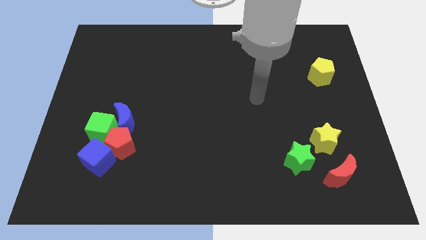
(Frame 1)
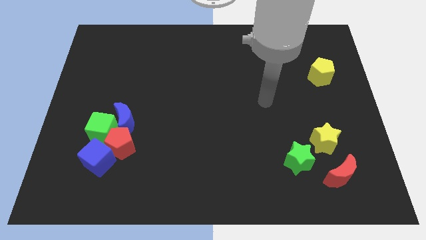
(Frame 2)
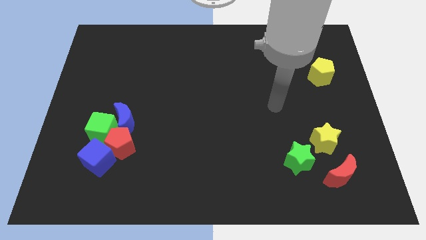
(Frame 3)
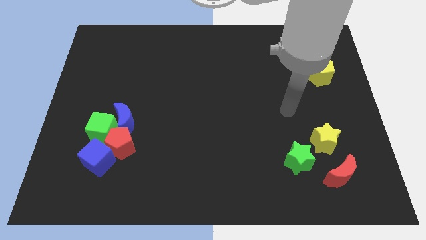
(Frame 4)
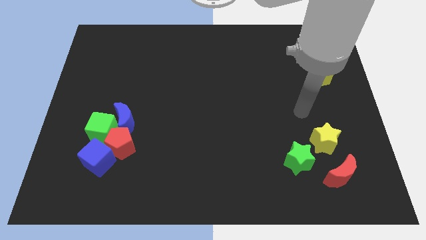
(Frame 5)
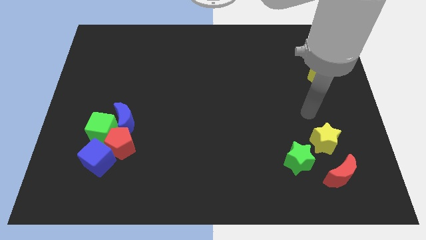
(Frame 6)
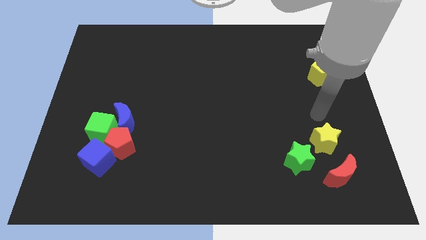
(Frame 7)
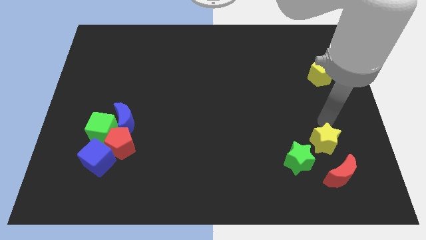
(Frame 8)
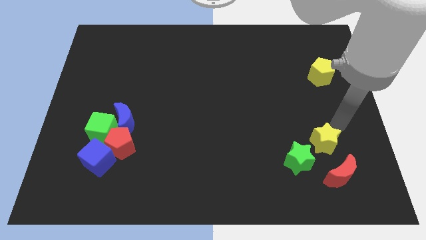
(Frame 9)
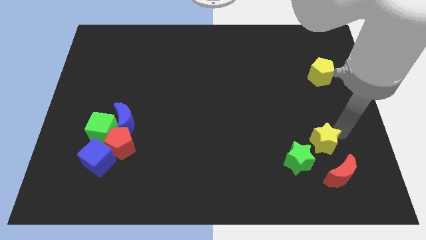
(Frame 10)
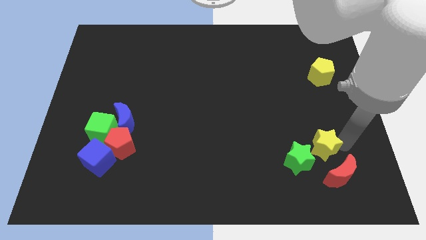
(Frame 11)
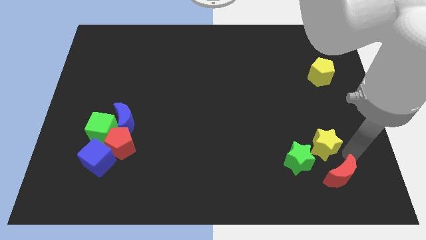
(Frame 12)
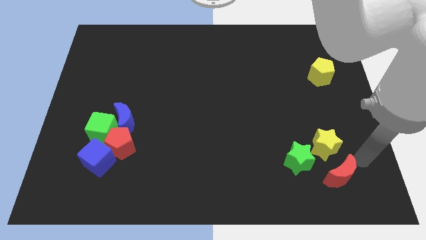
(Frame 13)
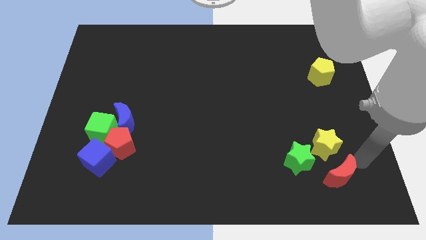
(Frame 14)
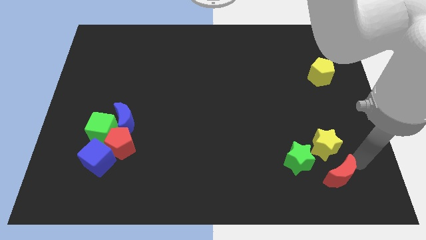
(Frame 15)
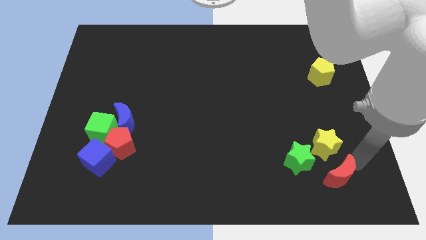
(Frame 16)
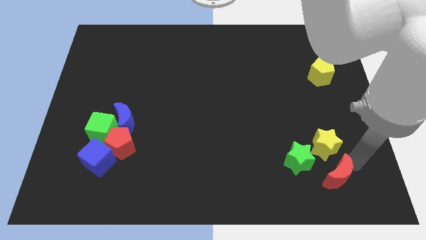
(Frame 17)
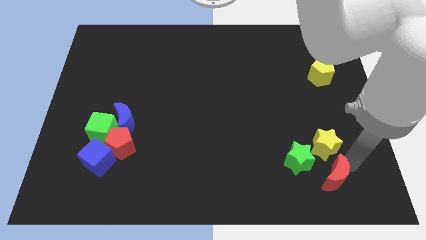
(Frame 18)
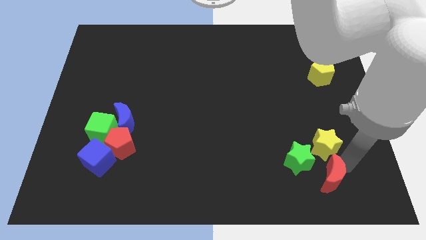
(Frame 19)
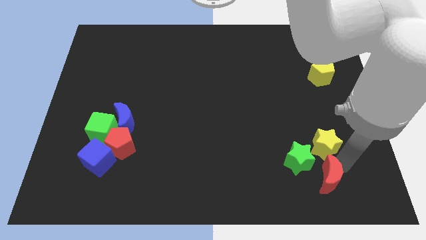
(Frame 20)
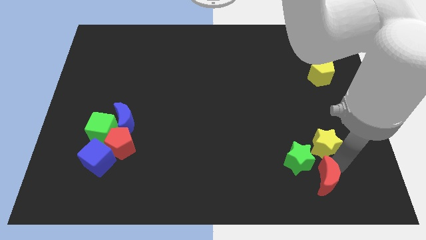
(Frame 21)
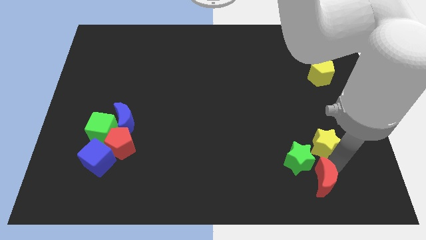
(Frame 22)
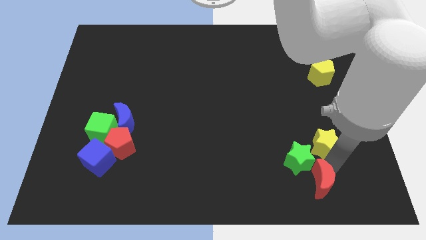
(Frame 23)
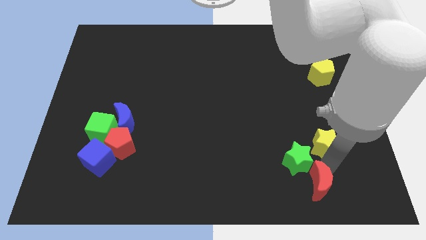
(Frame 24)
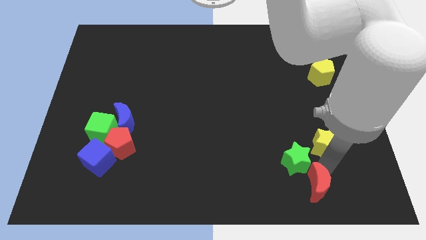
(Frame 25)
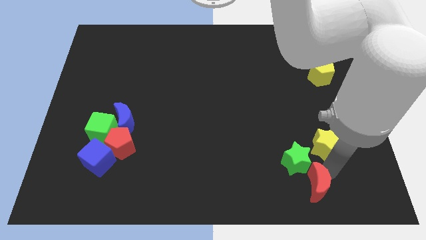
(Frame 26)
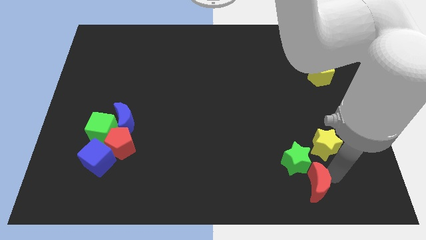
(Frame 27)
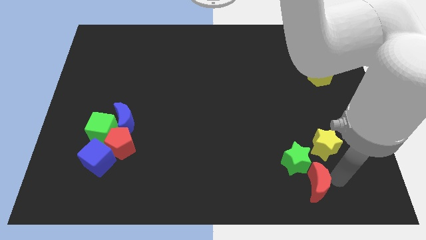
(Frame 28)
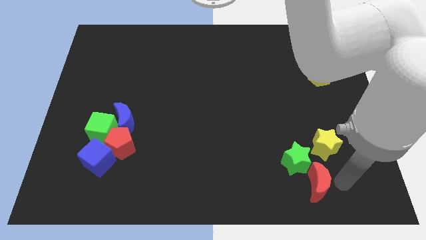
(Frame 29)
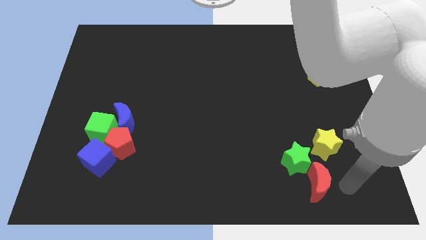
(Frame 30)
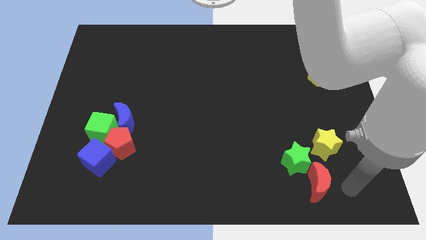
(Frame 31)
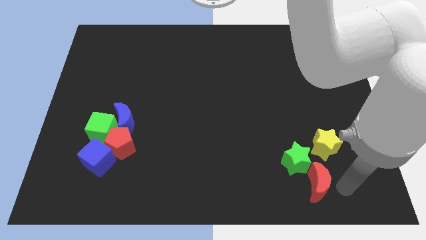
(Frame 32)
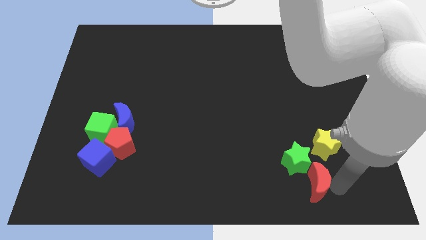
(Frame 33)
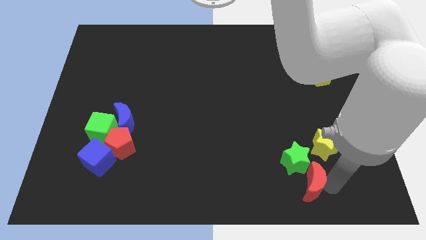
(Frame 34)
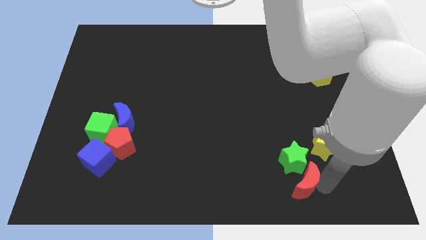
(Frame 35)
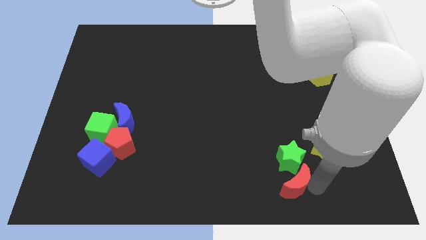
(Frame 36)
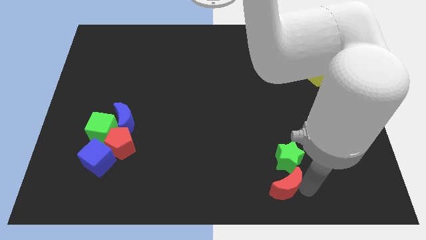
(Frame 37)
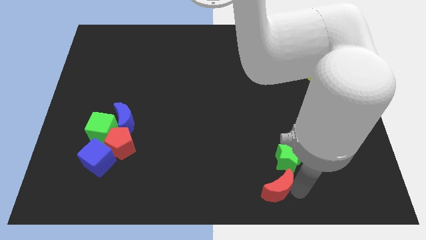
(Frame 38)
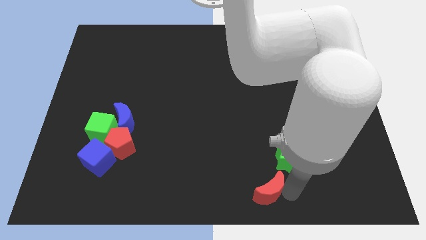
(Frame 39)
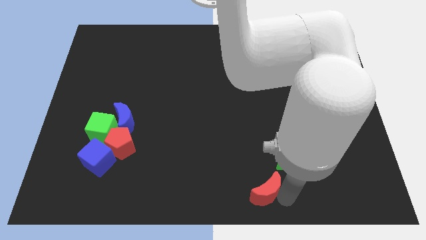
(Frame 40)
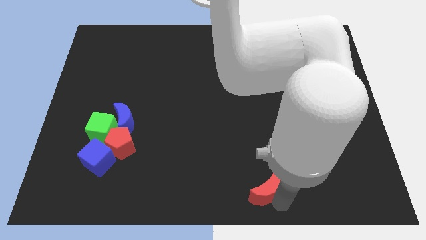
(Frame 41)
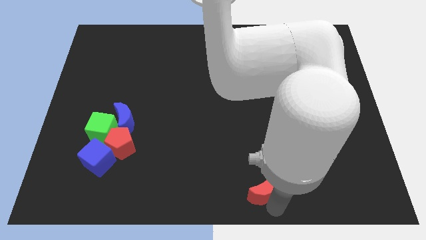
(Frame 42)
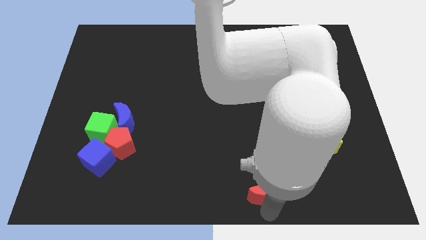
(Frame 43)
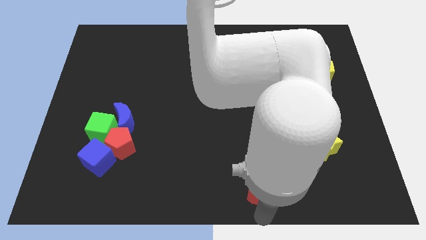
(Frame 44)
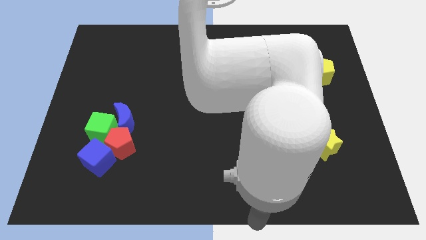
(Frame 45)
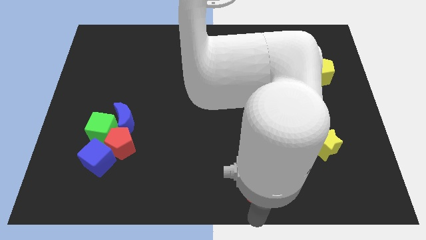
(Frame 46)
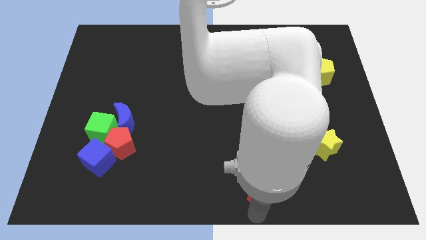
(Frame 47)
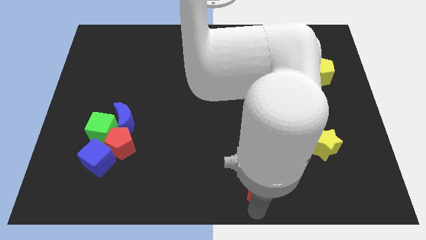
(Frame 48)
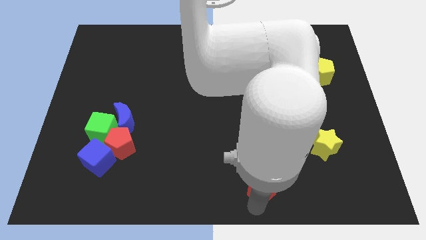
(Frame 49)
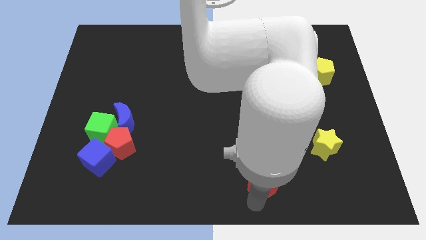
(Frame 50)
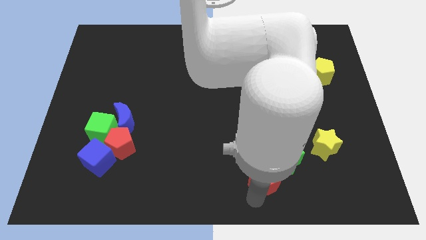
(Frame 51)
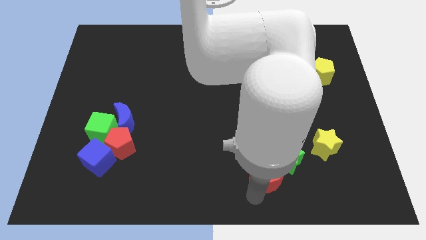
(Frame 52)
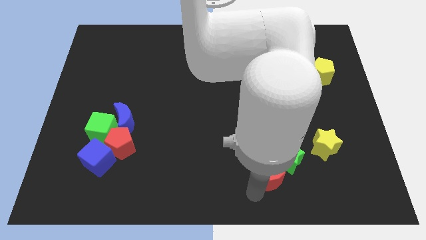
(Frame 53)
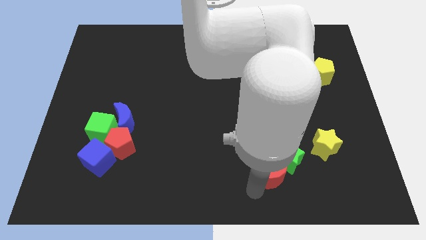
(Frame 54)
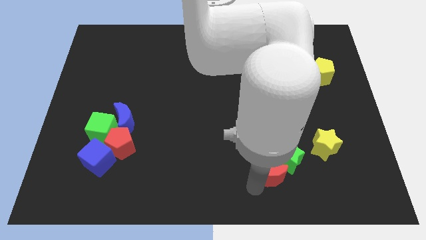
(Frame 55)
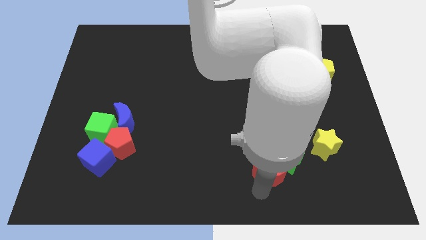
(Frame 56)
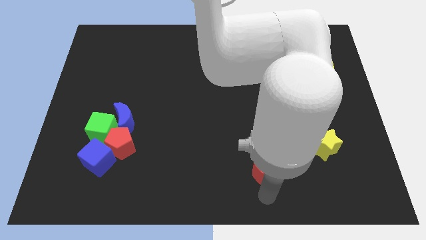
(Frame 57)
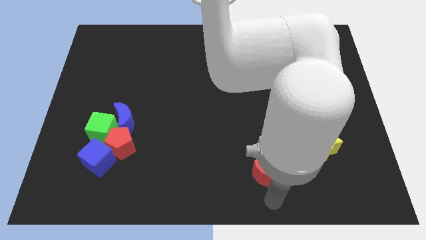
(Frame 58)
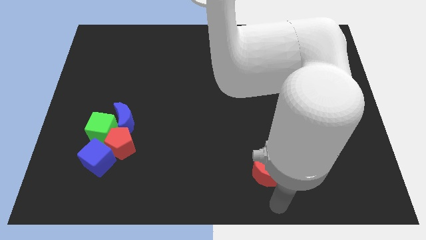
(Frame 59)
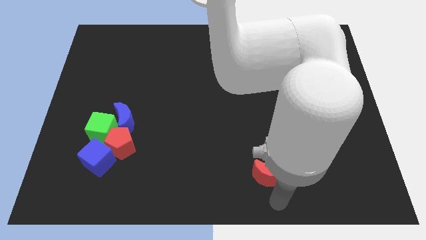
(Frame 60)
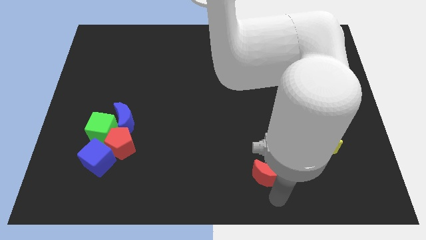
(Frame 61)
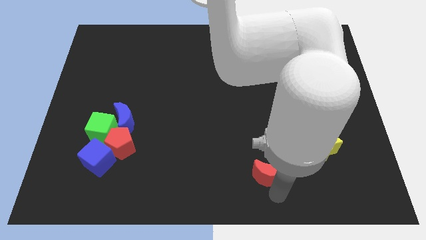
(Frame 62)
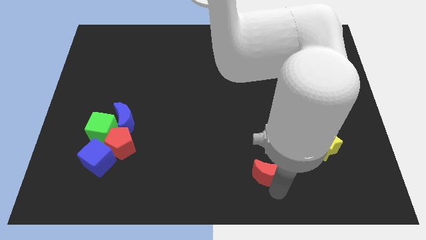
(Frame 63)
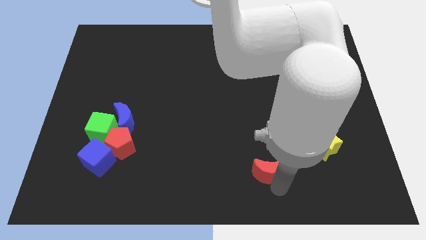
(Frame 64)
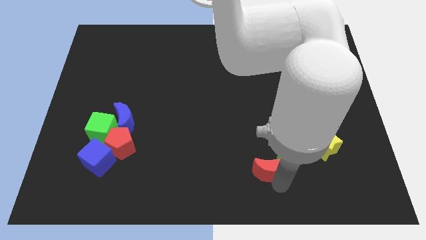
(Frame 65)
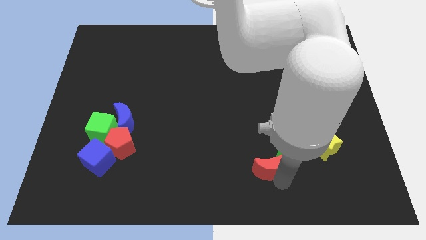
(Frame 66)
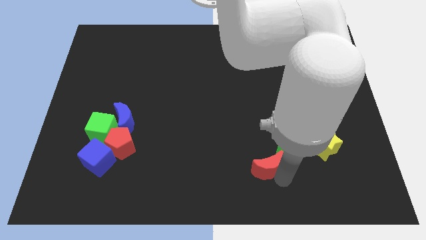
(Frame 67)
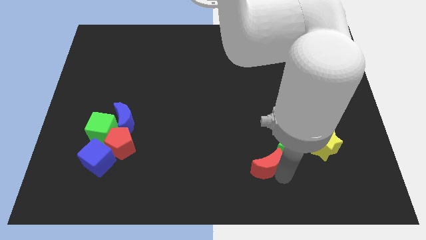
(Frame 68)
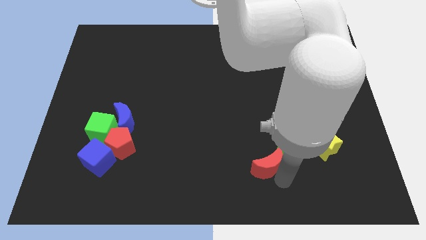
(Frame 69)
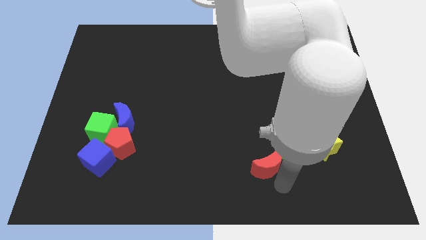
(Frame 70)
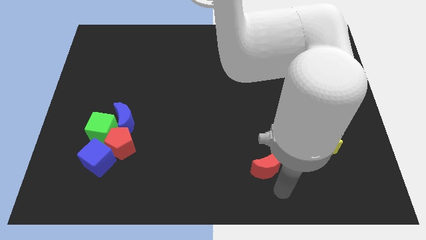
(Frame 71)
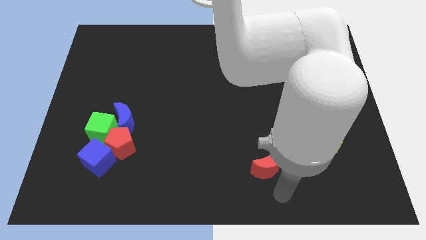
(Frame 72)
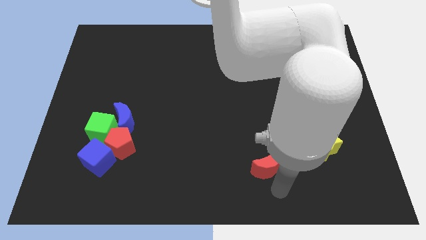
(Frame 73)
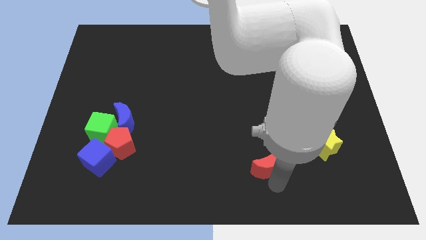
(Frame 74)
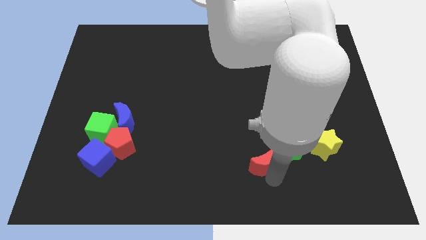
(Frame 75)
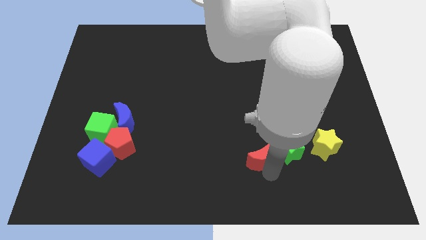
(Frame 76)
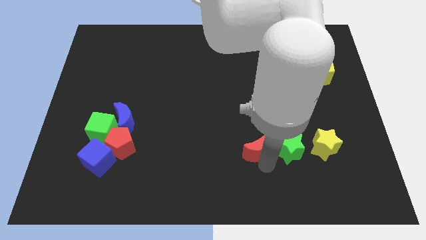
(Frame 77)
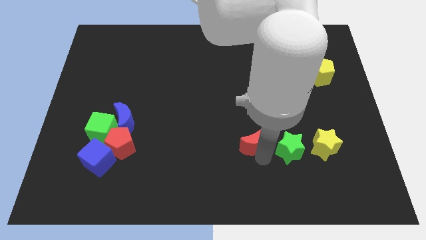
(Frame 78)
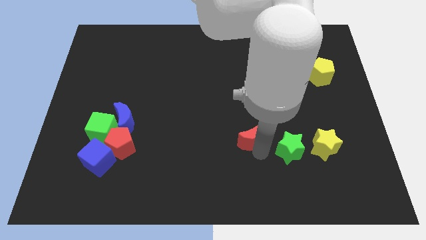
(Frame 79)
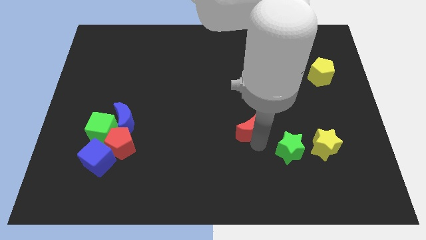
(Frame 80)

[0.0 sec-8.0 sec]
slide the red moon to the center of the board
